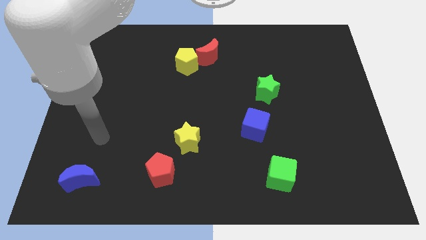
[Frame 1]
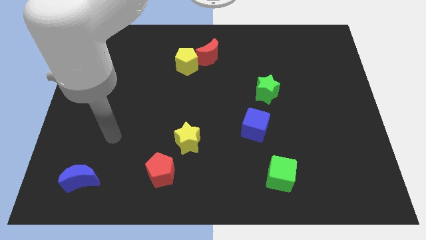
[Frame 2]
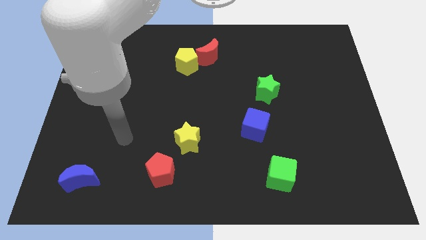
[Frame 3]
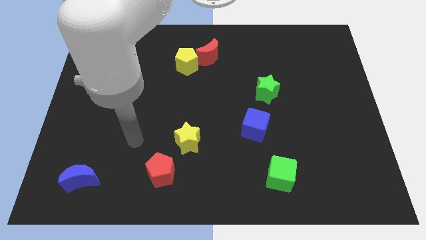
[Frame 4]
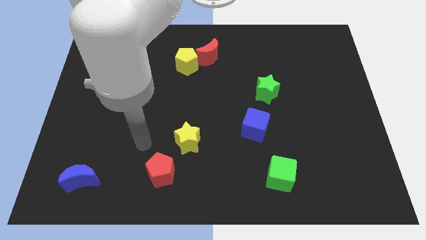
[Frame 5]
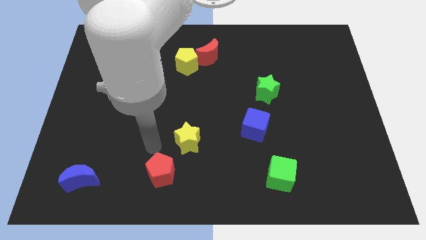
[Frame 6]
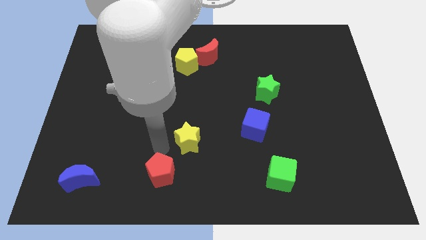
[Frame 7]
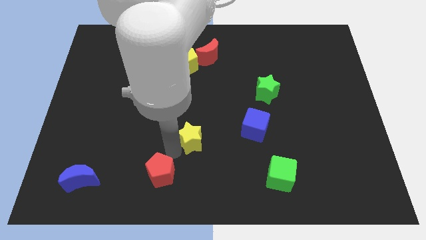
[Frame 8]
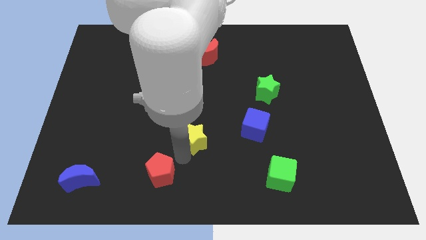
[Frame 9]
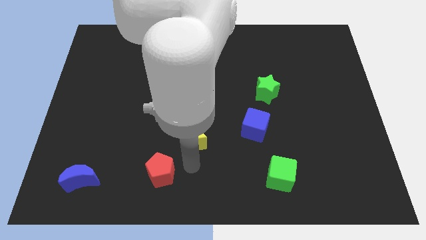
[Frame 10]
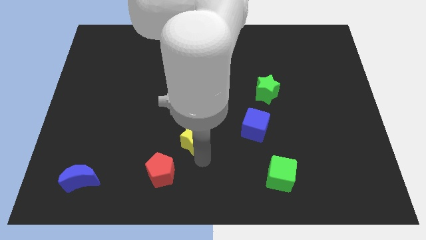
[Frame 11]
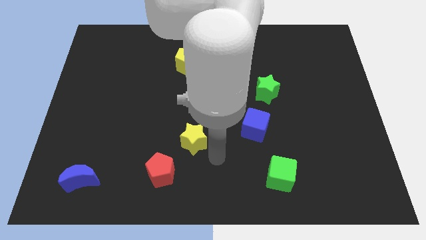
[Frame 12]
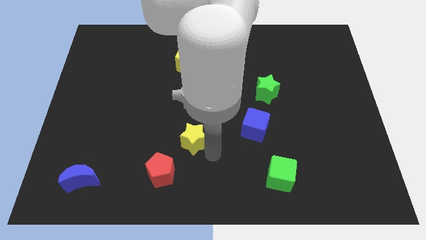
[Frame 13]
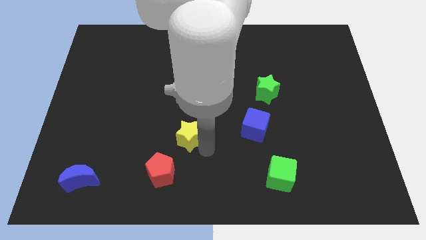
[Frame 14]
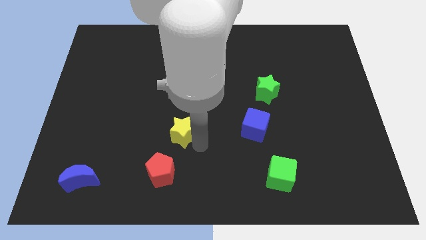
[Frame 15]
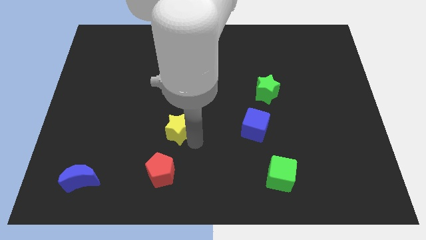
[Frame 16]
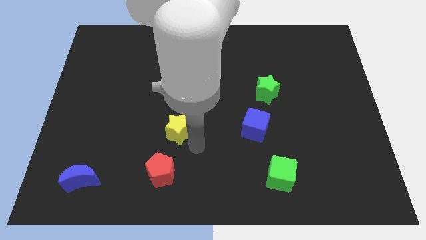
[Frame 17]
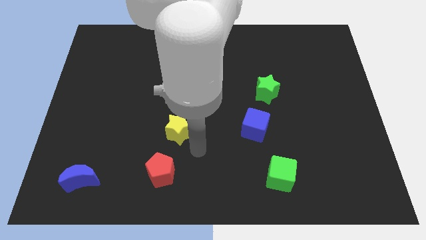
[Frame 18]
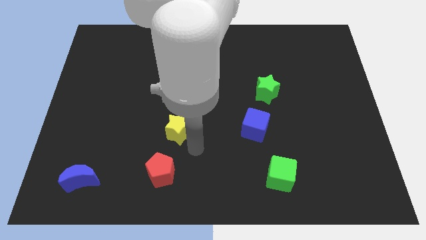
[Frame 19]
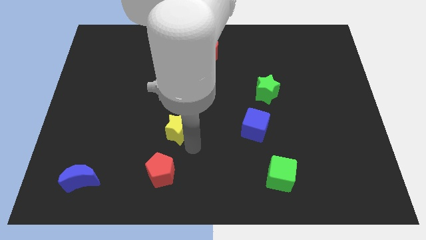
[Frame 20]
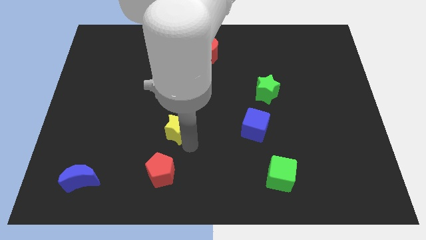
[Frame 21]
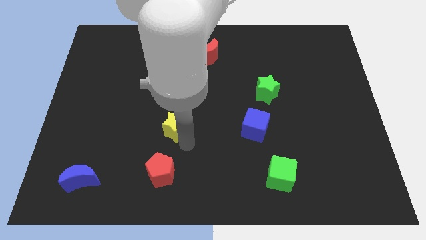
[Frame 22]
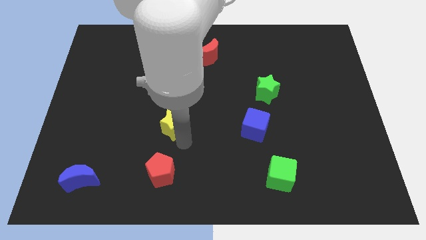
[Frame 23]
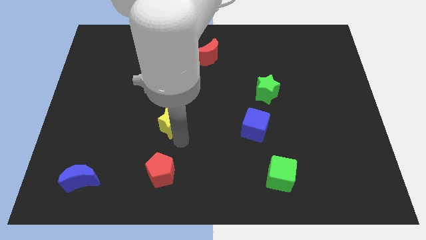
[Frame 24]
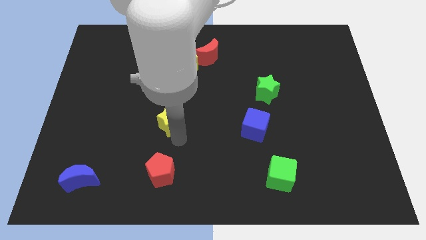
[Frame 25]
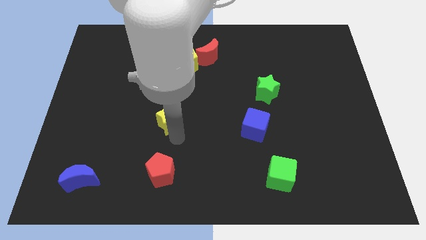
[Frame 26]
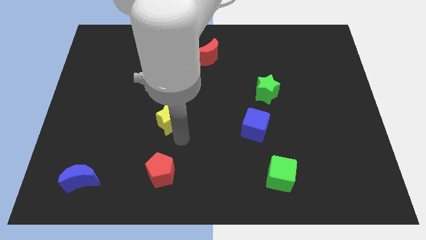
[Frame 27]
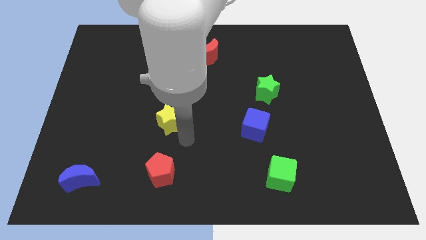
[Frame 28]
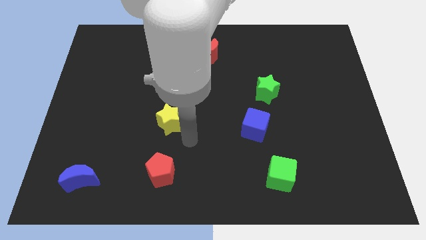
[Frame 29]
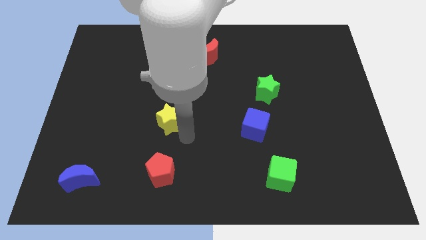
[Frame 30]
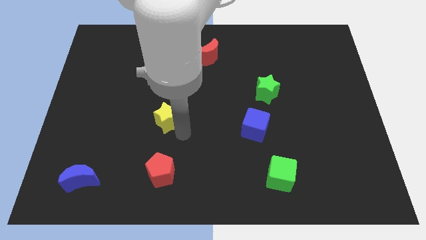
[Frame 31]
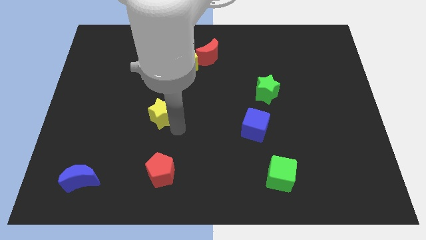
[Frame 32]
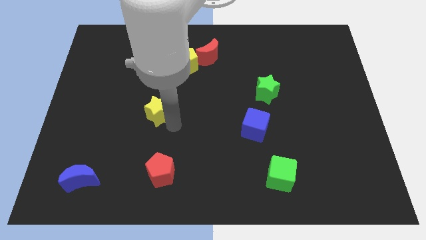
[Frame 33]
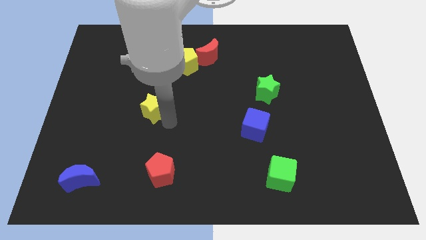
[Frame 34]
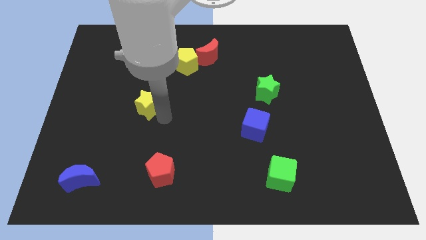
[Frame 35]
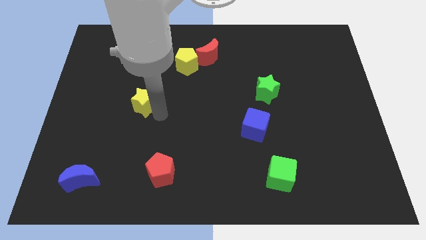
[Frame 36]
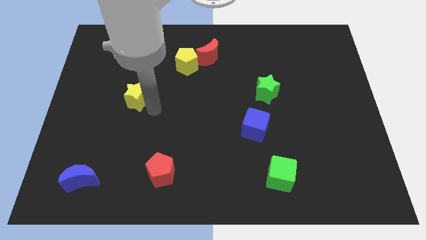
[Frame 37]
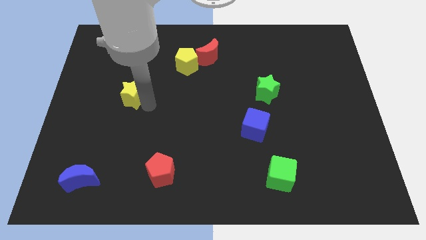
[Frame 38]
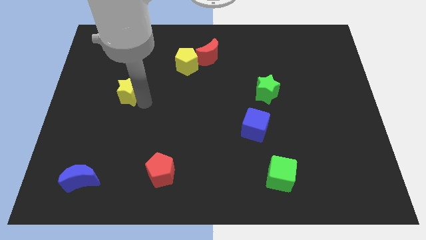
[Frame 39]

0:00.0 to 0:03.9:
slide the yellow star diagonally up and to the left

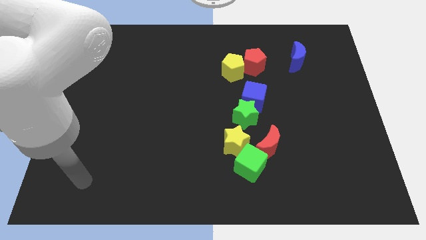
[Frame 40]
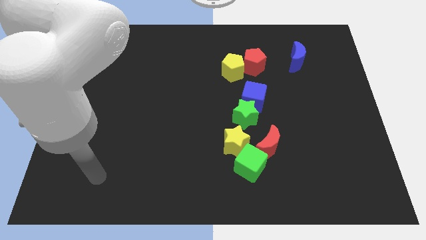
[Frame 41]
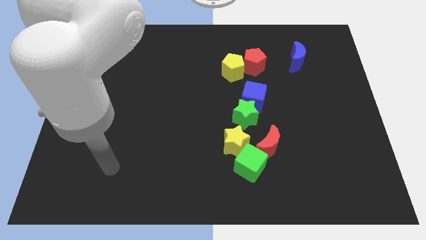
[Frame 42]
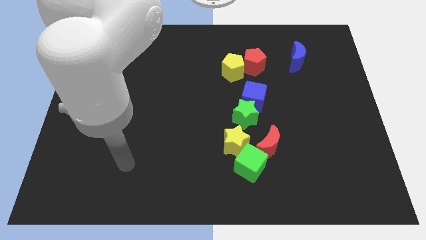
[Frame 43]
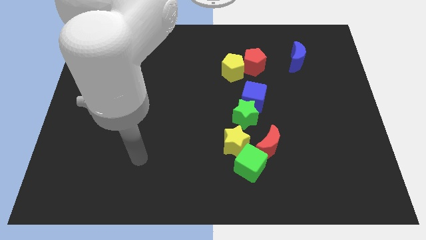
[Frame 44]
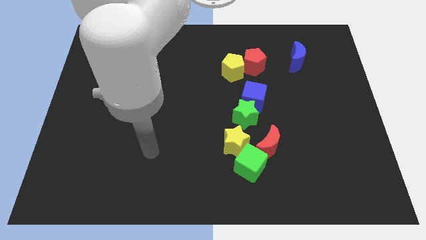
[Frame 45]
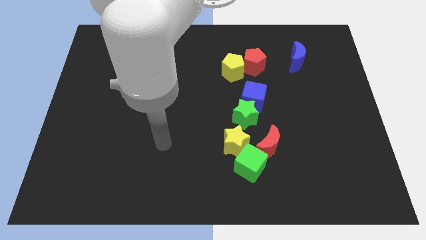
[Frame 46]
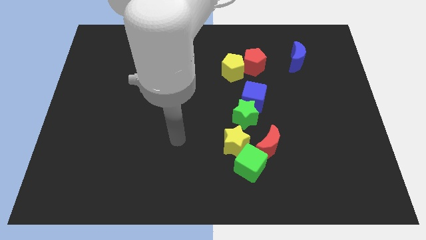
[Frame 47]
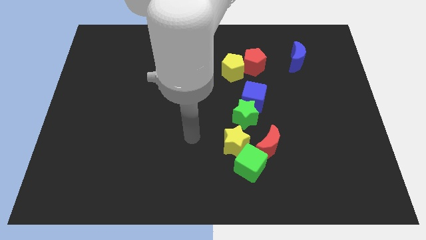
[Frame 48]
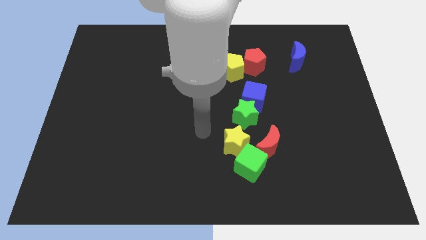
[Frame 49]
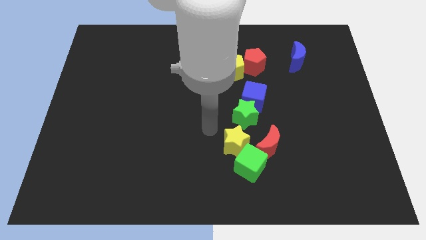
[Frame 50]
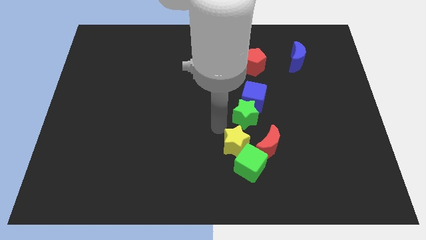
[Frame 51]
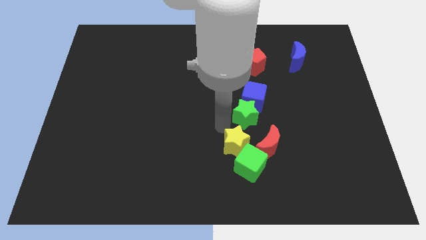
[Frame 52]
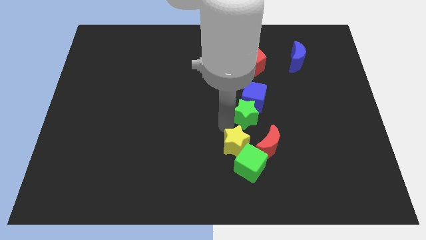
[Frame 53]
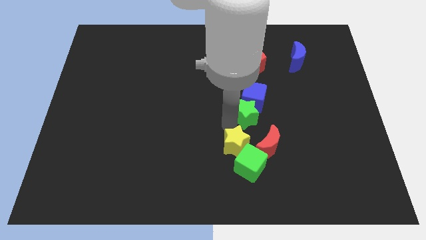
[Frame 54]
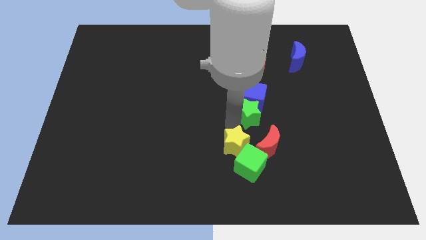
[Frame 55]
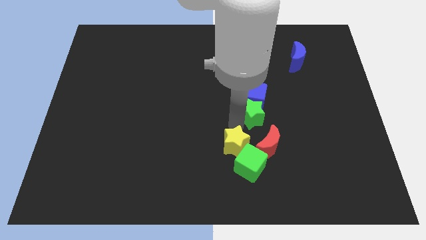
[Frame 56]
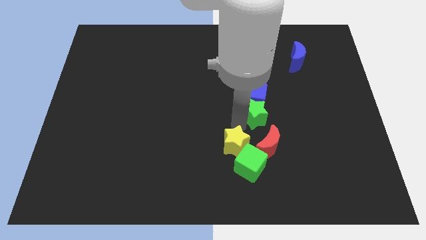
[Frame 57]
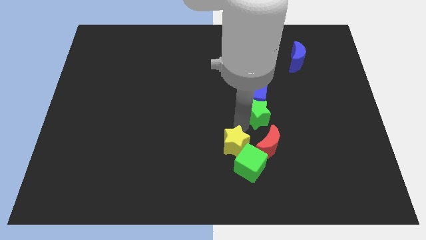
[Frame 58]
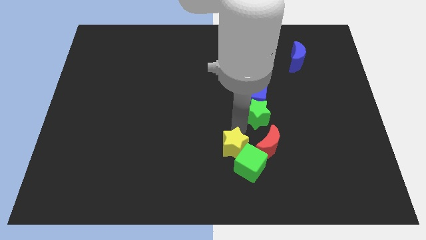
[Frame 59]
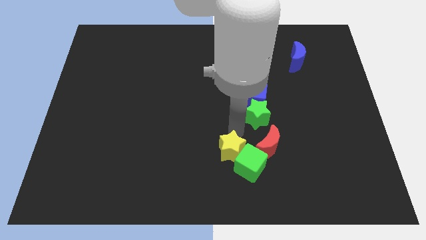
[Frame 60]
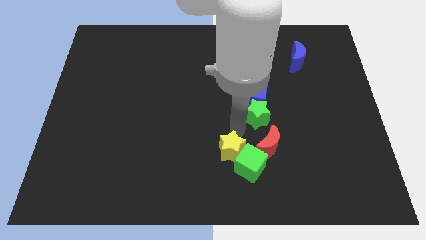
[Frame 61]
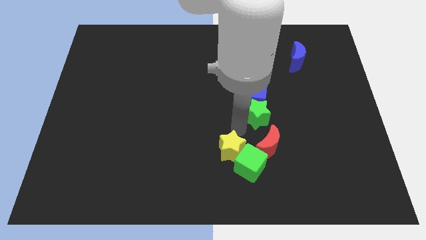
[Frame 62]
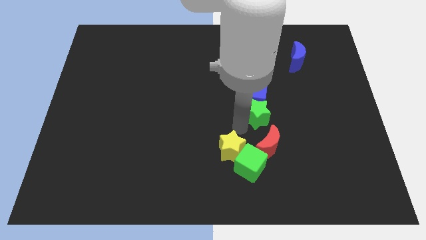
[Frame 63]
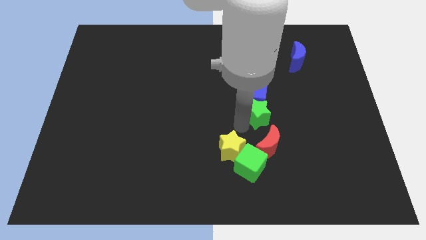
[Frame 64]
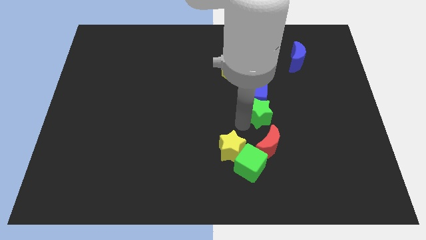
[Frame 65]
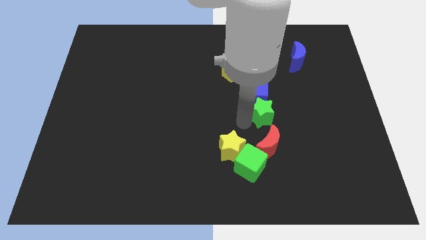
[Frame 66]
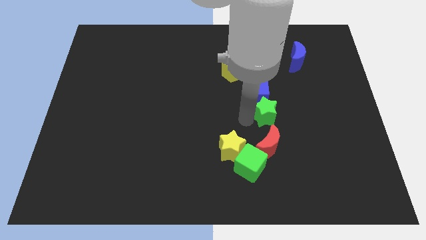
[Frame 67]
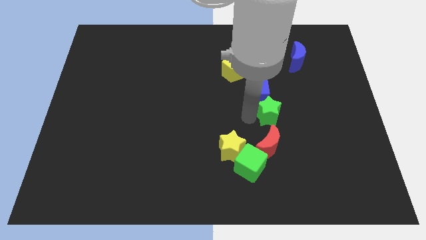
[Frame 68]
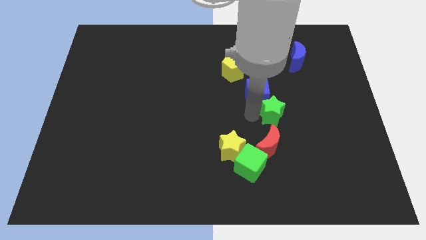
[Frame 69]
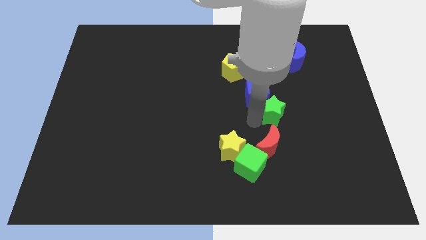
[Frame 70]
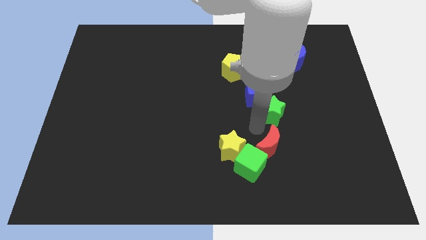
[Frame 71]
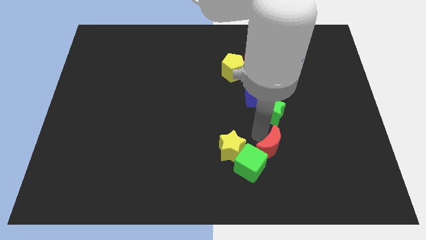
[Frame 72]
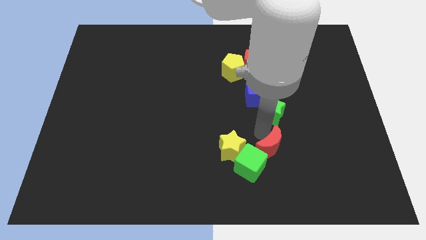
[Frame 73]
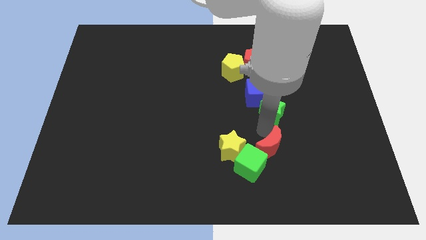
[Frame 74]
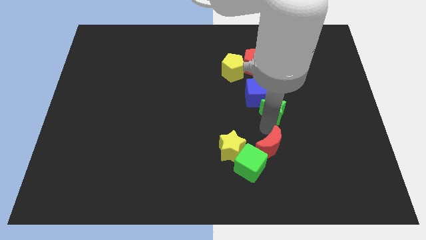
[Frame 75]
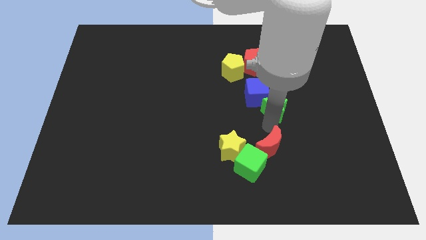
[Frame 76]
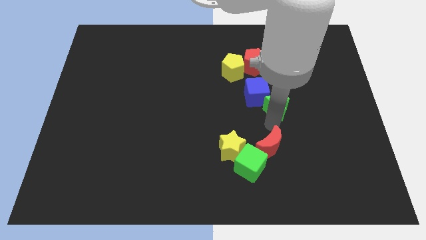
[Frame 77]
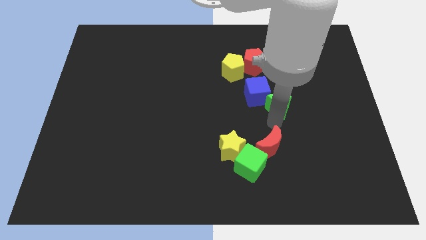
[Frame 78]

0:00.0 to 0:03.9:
push the green star upwards and then to the right somewhat

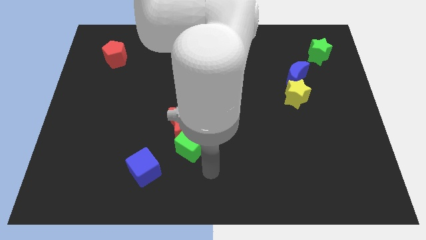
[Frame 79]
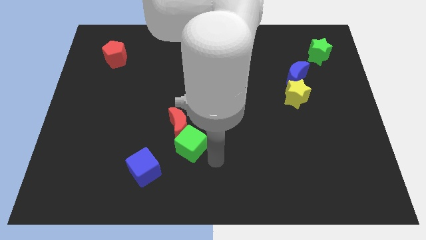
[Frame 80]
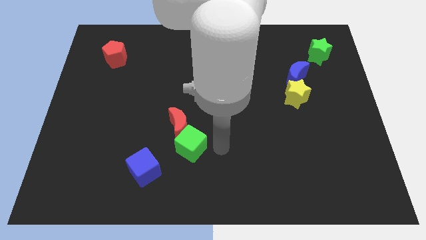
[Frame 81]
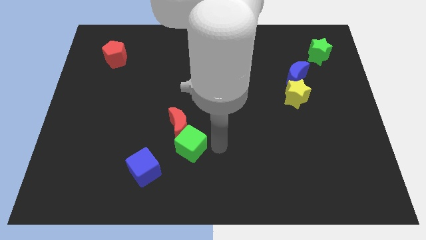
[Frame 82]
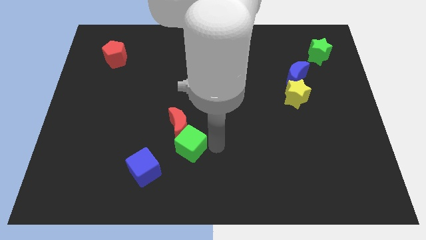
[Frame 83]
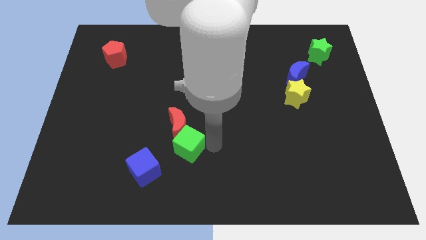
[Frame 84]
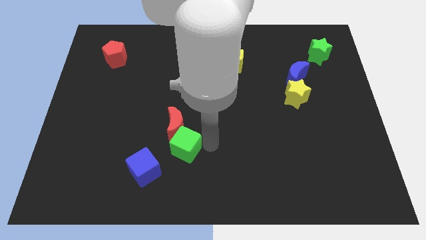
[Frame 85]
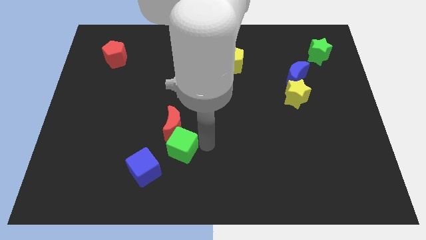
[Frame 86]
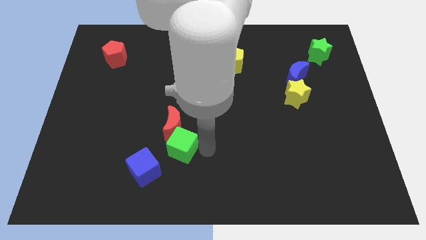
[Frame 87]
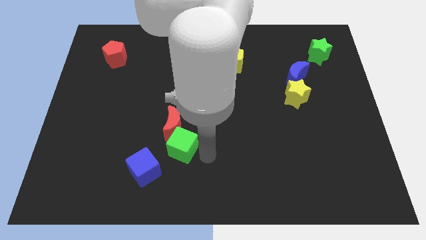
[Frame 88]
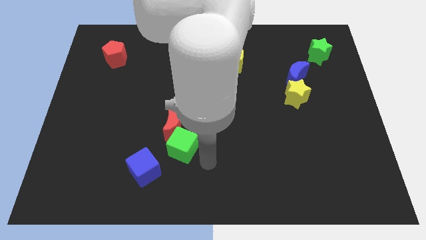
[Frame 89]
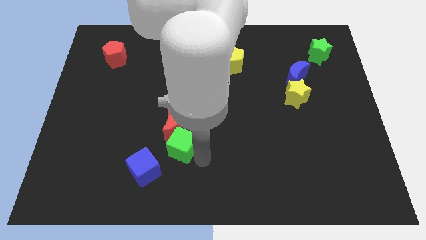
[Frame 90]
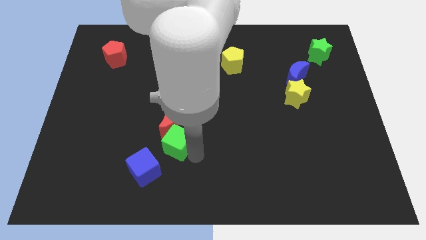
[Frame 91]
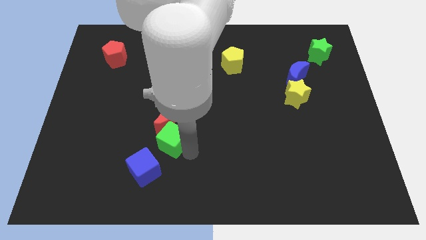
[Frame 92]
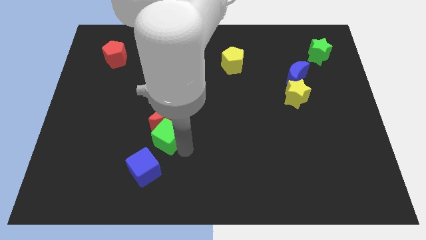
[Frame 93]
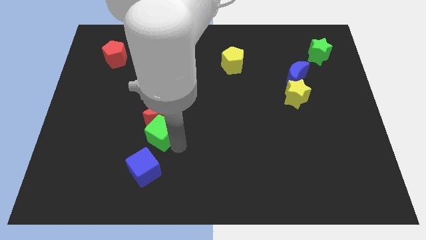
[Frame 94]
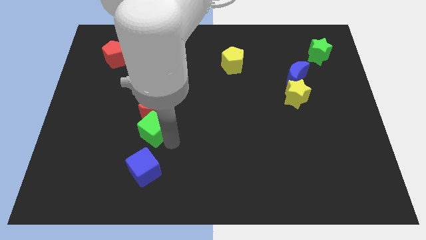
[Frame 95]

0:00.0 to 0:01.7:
slightly slide the green cube upwards and left
